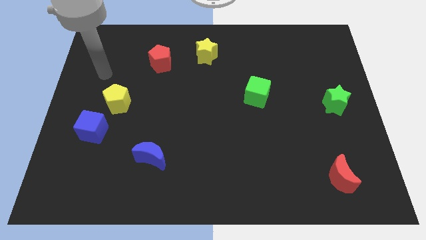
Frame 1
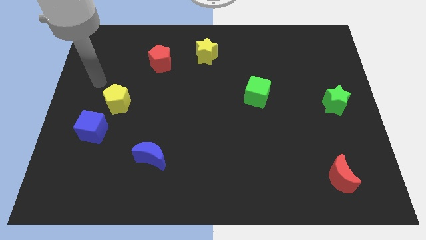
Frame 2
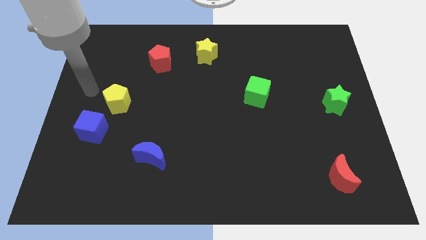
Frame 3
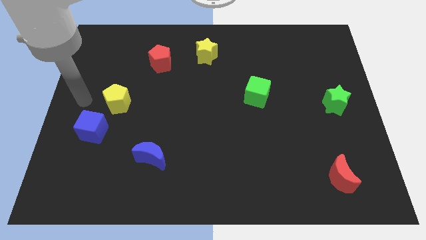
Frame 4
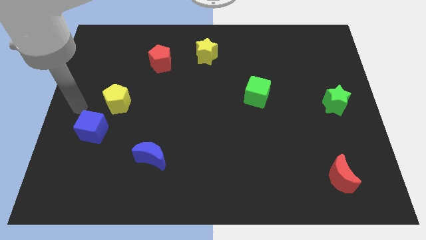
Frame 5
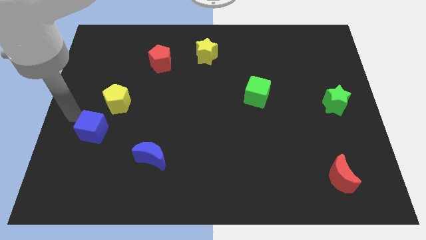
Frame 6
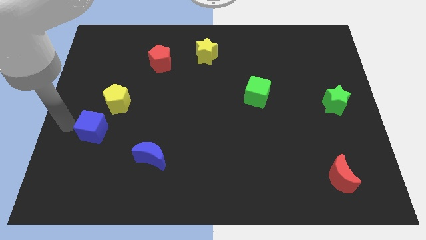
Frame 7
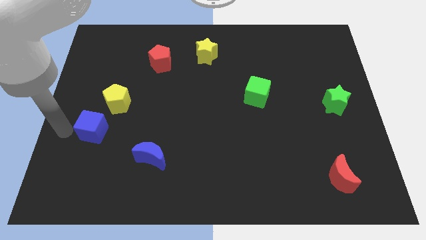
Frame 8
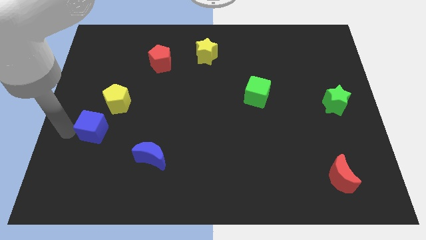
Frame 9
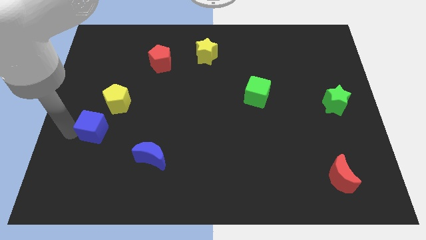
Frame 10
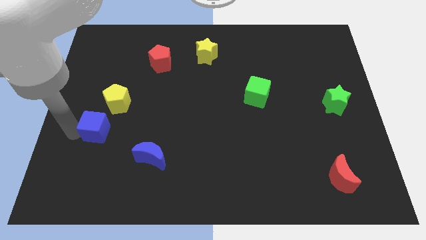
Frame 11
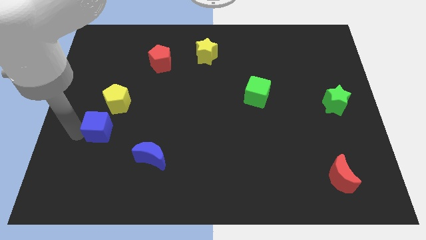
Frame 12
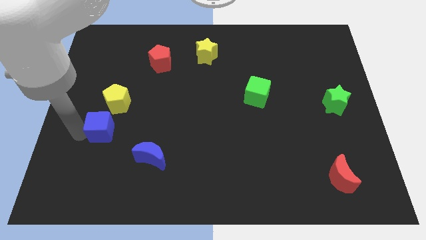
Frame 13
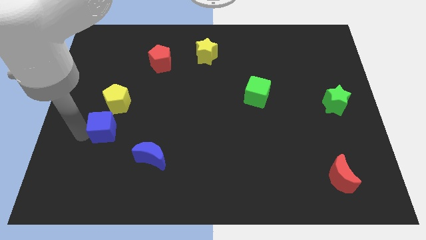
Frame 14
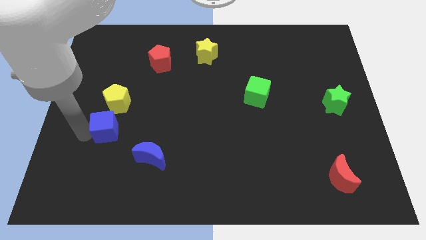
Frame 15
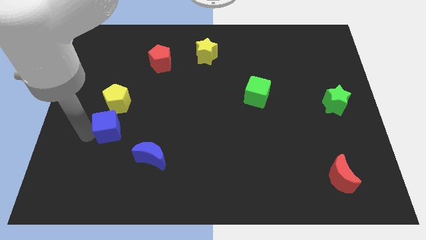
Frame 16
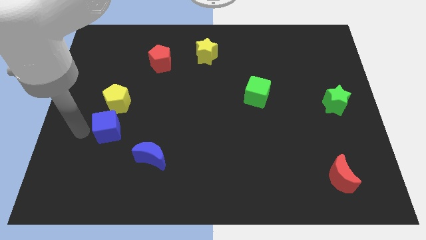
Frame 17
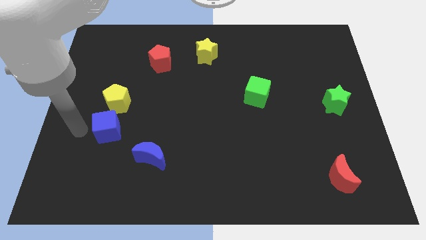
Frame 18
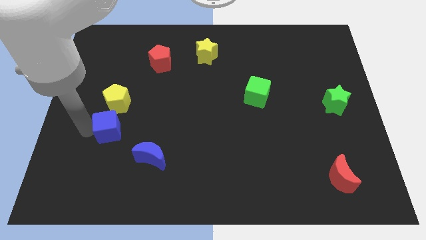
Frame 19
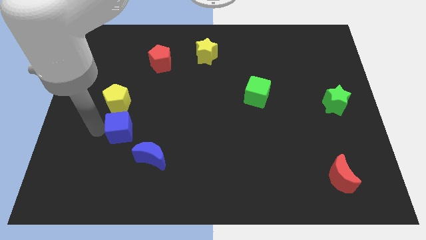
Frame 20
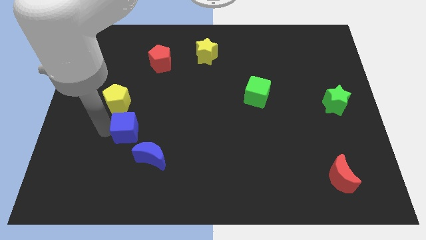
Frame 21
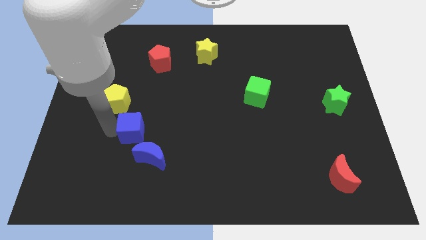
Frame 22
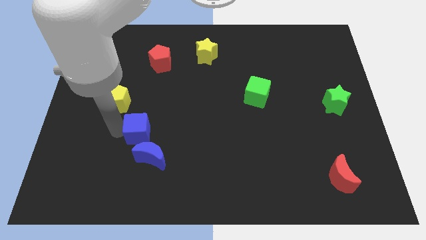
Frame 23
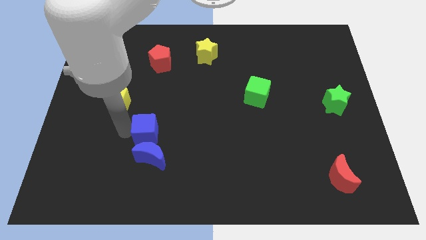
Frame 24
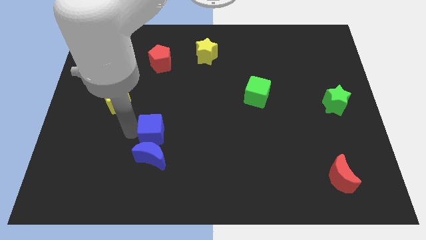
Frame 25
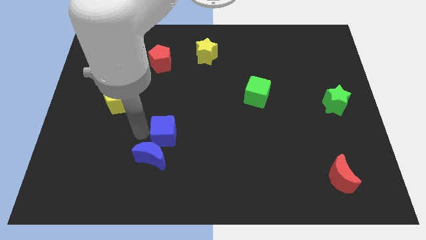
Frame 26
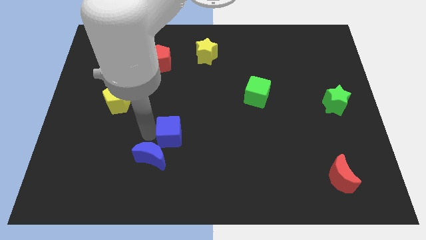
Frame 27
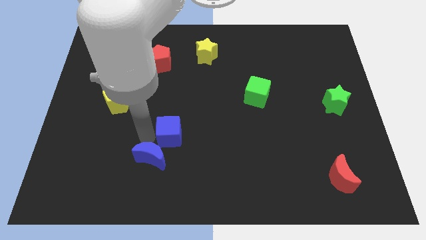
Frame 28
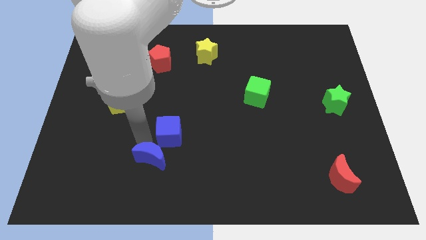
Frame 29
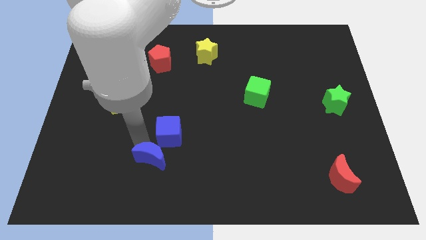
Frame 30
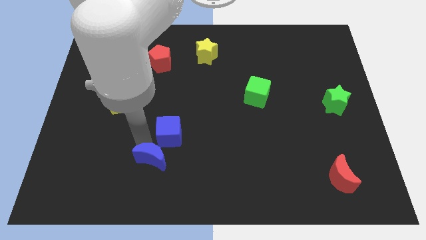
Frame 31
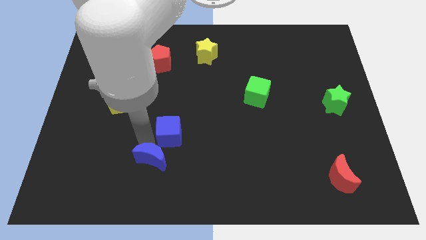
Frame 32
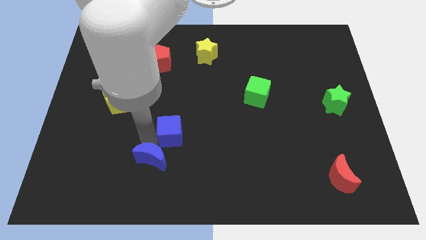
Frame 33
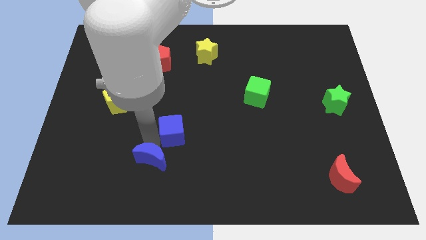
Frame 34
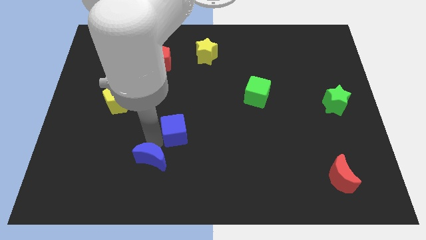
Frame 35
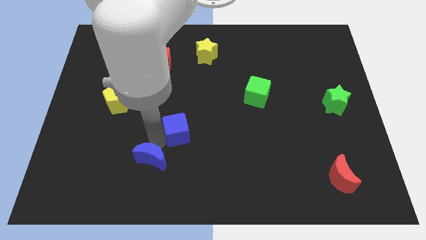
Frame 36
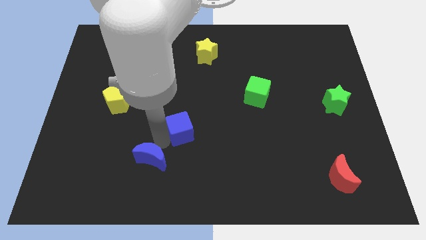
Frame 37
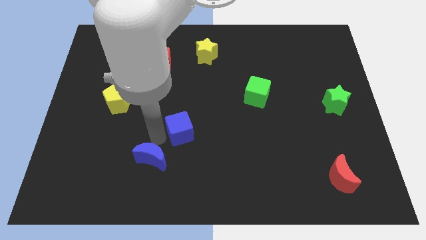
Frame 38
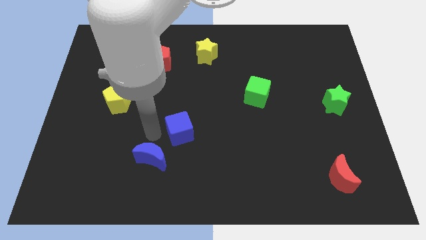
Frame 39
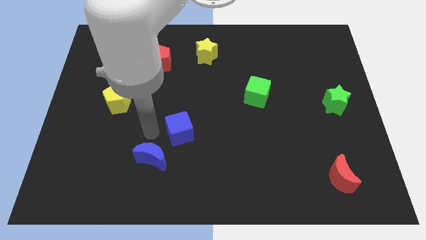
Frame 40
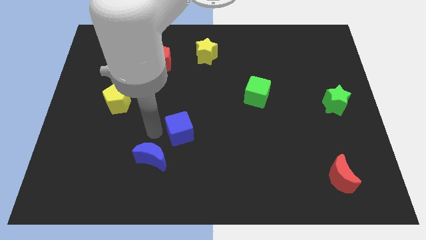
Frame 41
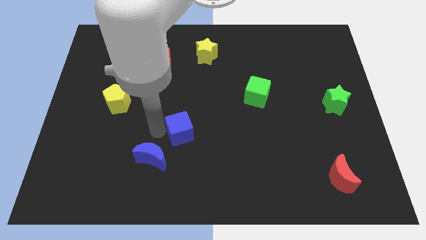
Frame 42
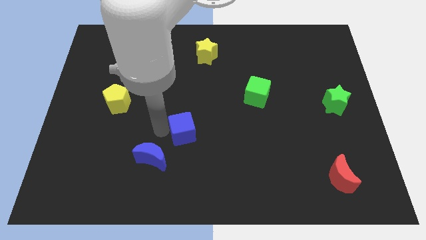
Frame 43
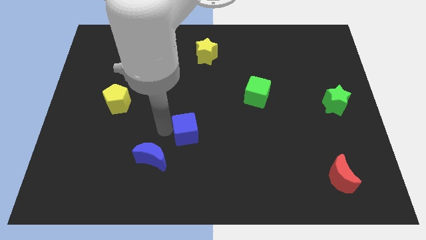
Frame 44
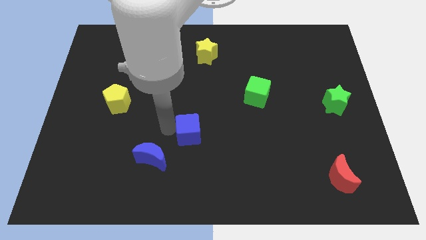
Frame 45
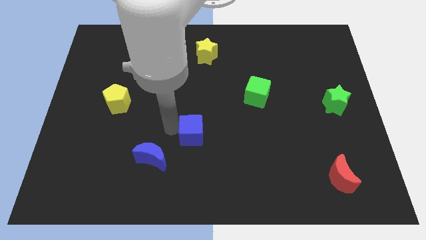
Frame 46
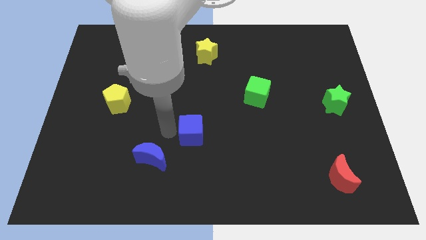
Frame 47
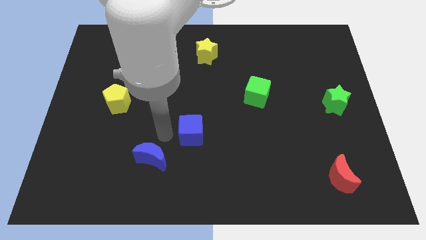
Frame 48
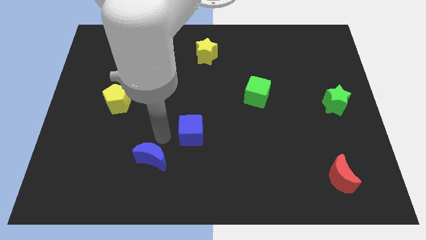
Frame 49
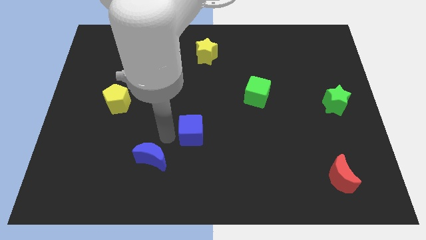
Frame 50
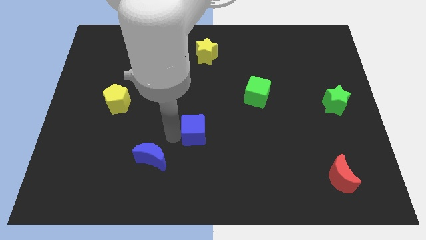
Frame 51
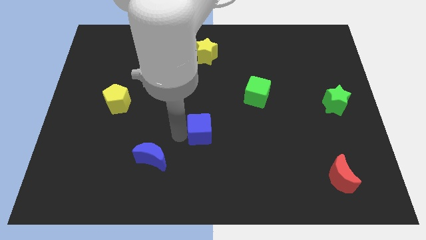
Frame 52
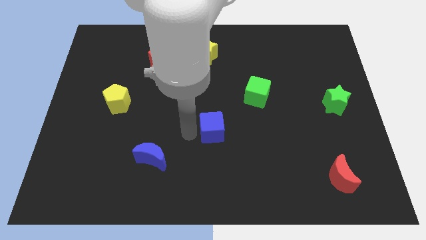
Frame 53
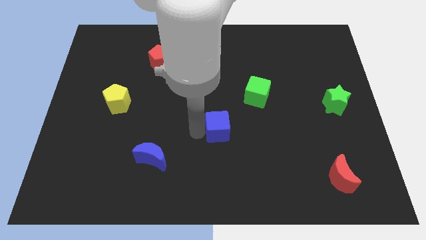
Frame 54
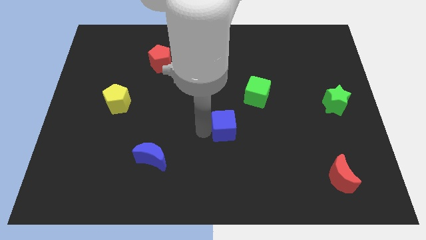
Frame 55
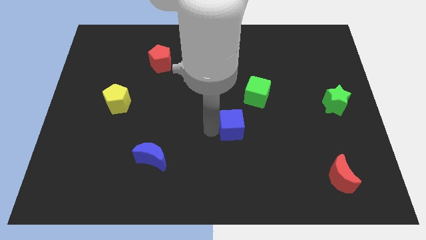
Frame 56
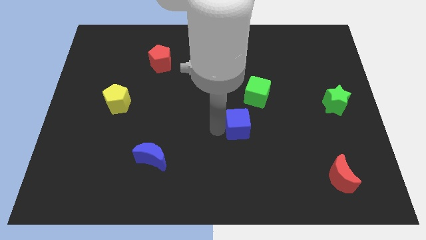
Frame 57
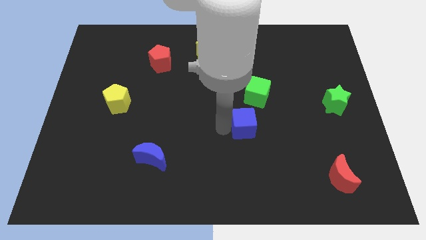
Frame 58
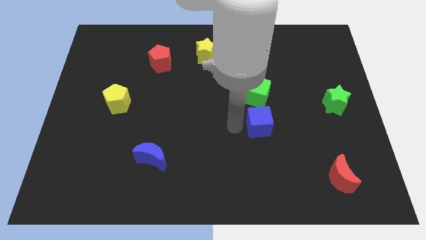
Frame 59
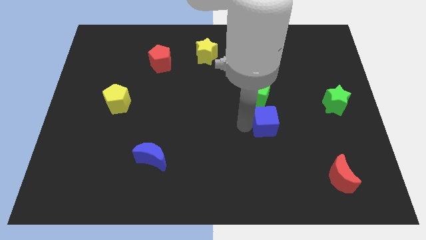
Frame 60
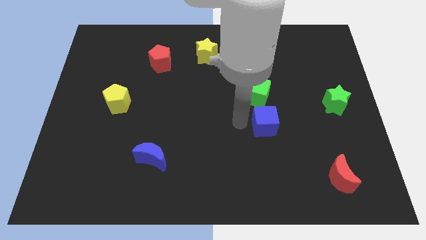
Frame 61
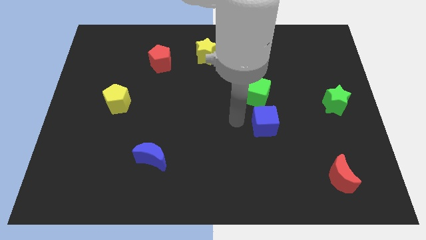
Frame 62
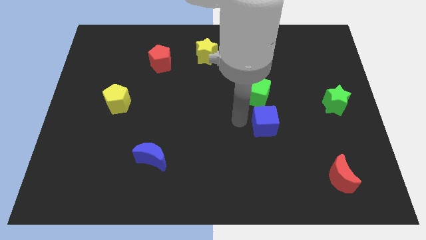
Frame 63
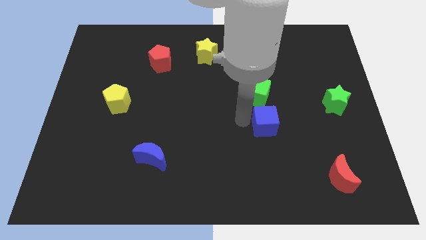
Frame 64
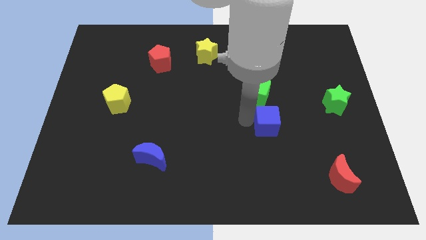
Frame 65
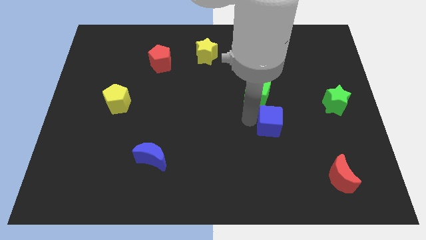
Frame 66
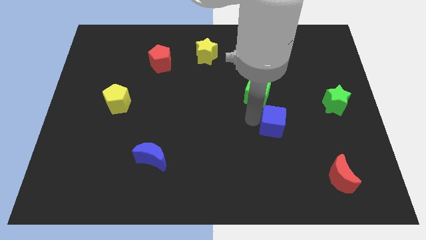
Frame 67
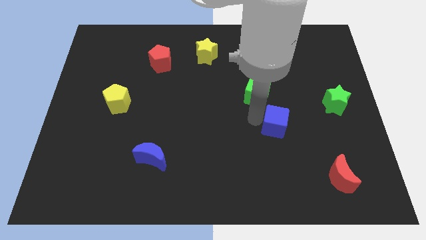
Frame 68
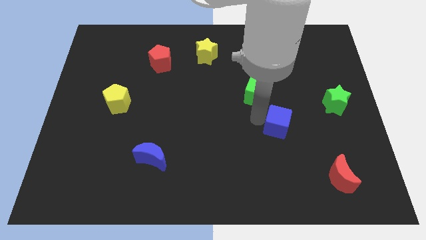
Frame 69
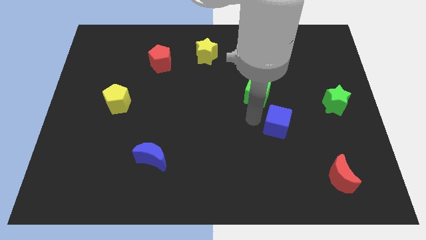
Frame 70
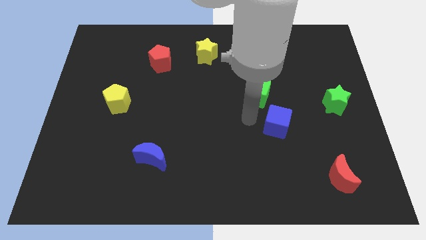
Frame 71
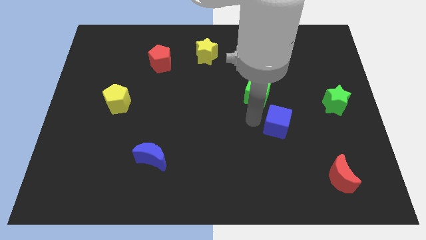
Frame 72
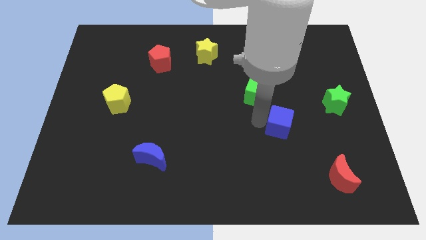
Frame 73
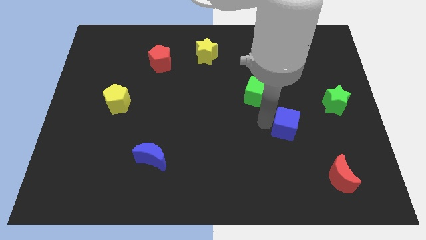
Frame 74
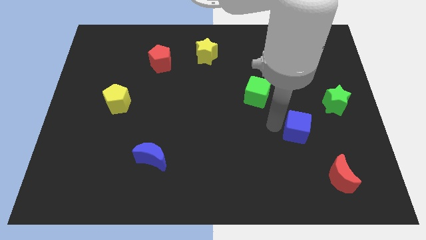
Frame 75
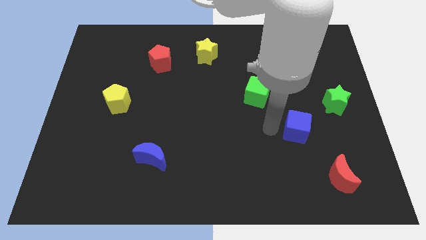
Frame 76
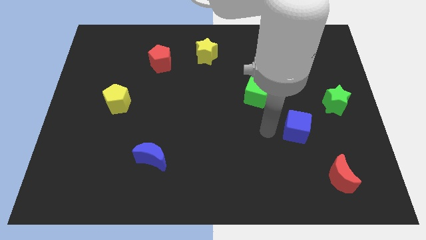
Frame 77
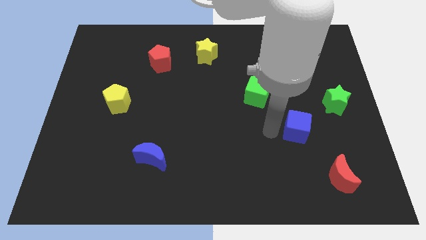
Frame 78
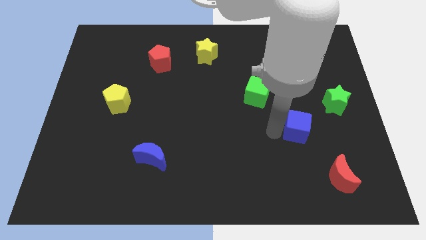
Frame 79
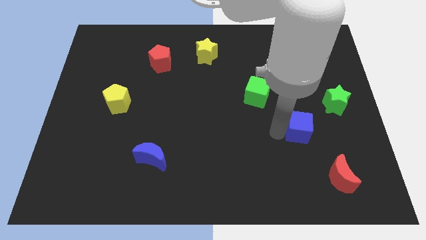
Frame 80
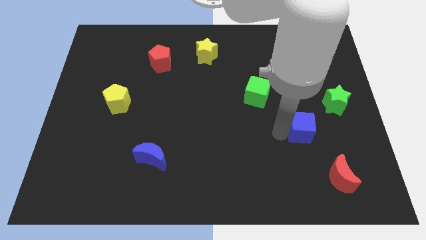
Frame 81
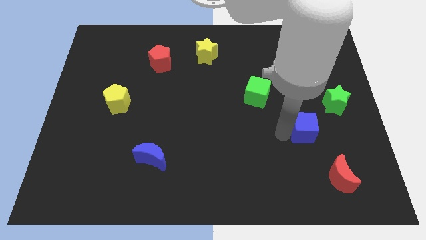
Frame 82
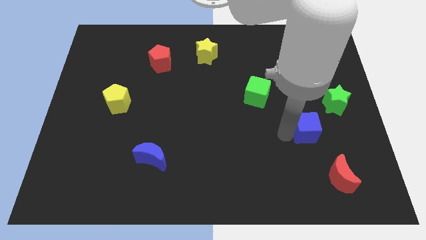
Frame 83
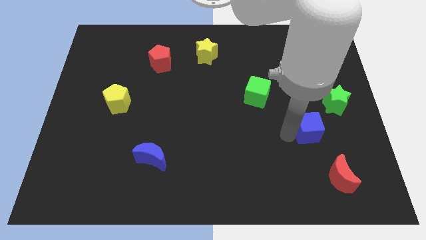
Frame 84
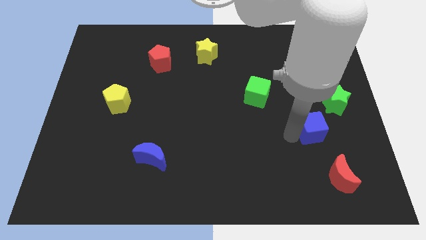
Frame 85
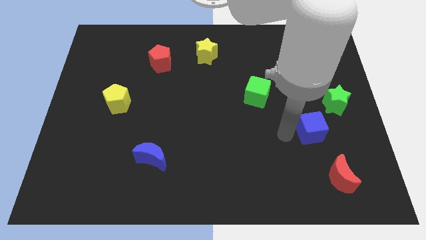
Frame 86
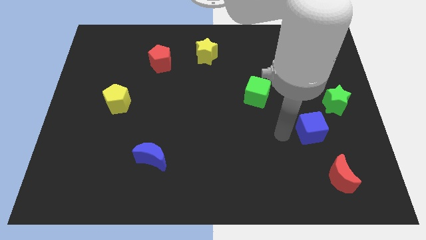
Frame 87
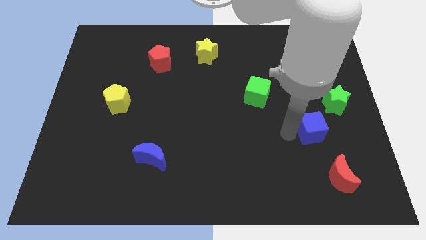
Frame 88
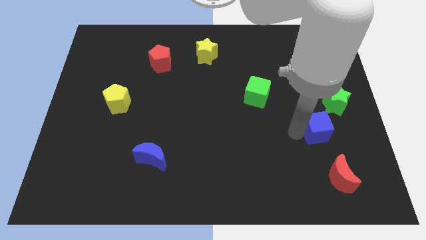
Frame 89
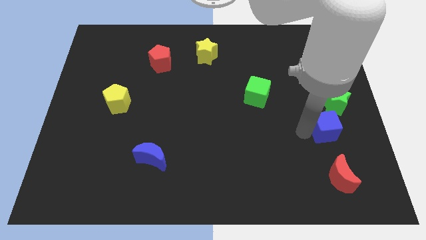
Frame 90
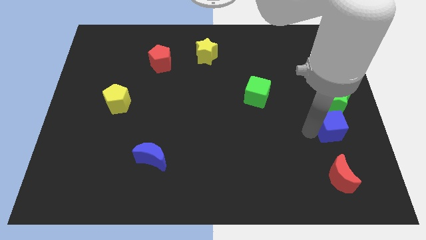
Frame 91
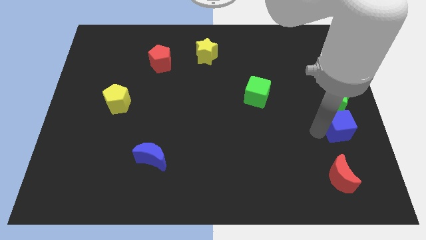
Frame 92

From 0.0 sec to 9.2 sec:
move the blue cube to the right side
